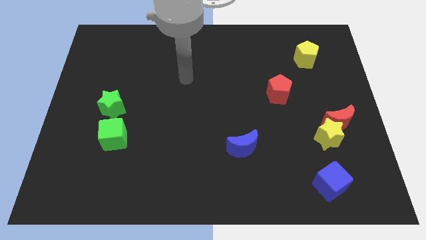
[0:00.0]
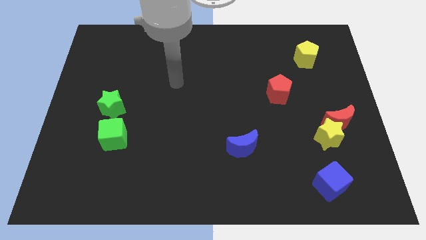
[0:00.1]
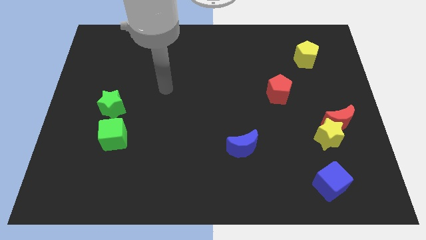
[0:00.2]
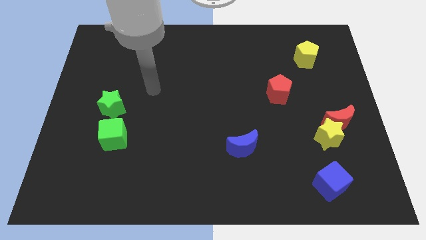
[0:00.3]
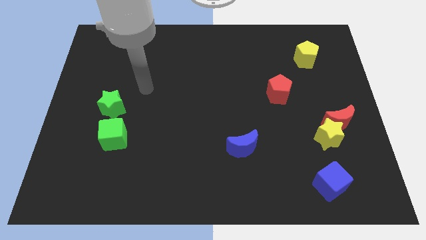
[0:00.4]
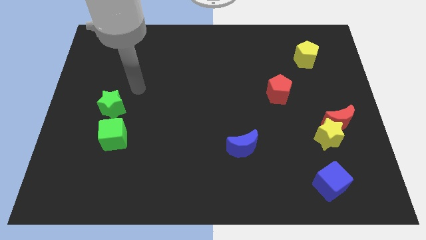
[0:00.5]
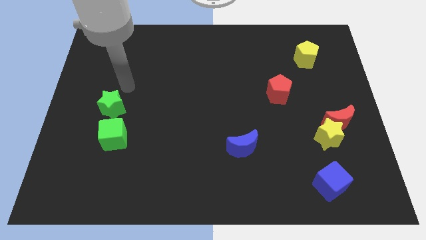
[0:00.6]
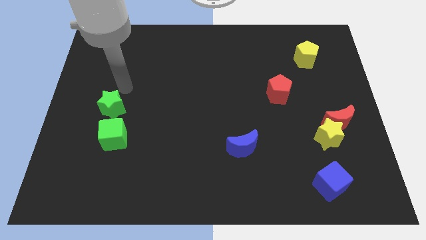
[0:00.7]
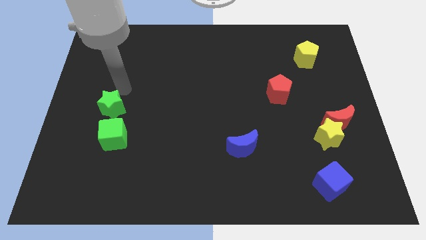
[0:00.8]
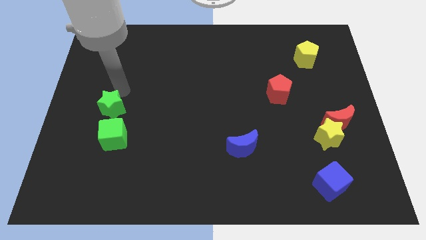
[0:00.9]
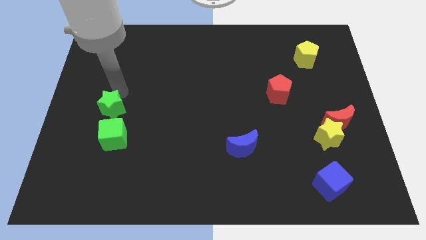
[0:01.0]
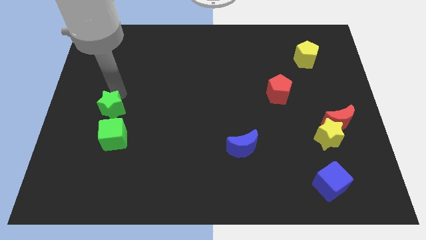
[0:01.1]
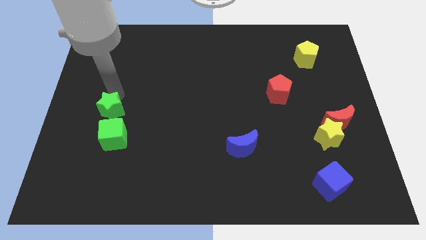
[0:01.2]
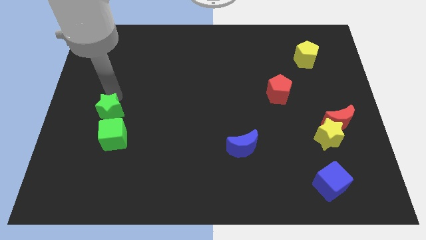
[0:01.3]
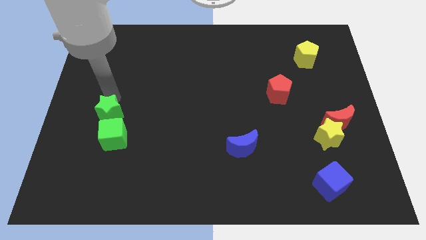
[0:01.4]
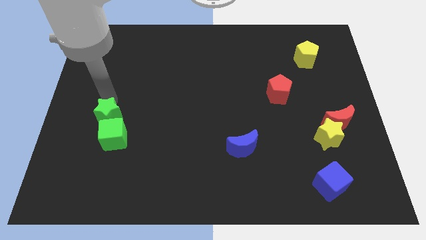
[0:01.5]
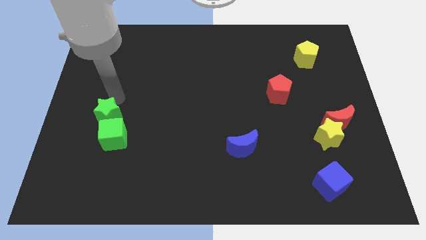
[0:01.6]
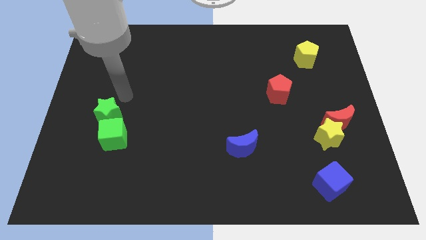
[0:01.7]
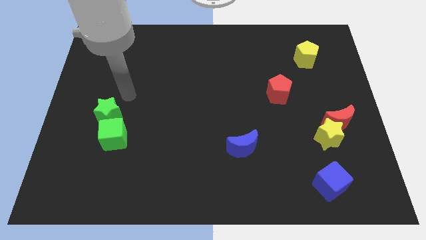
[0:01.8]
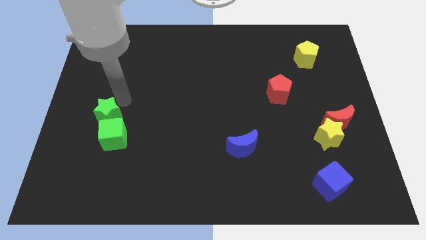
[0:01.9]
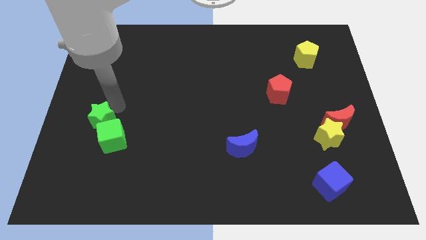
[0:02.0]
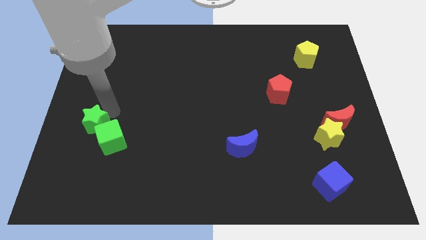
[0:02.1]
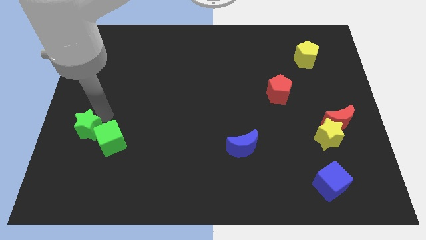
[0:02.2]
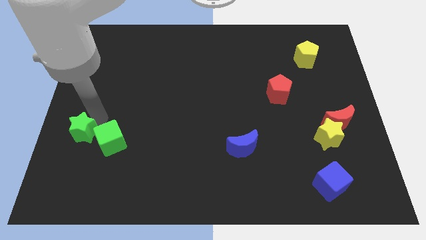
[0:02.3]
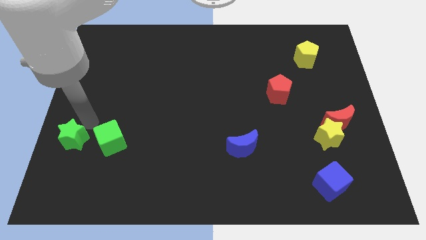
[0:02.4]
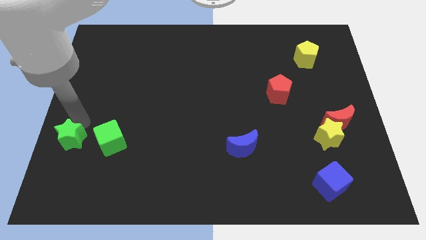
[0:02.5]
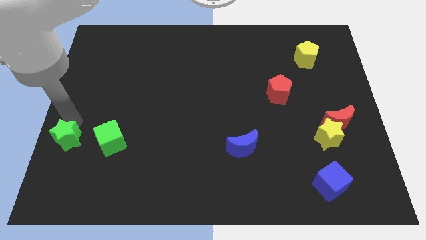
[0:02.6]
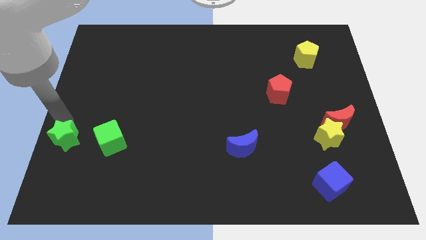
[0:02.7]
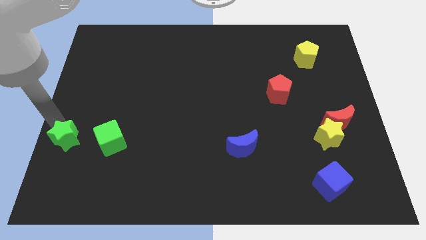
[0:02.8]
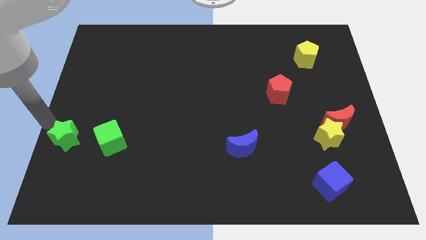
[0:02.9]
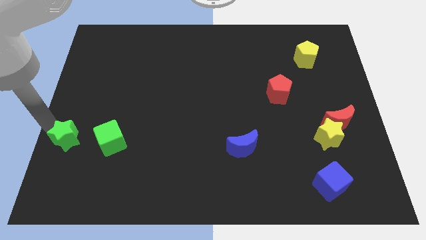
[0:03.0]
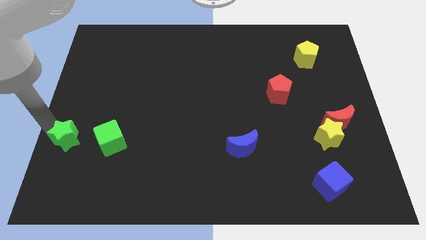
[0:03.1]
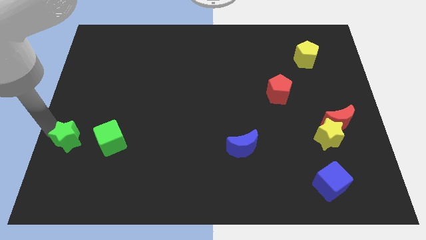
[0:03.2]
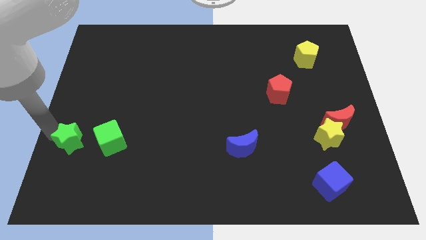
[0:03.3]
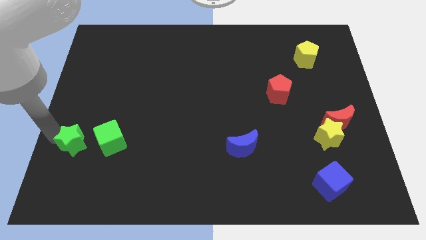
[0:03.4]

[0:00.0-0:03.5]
move the green star slightly downwards

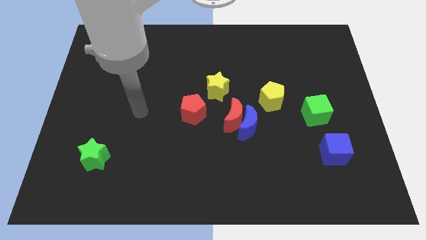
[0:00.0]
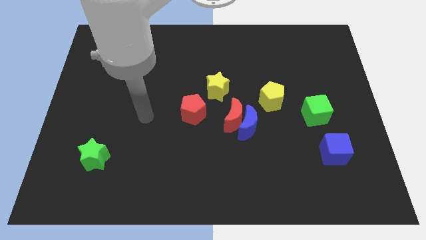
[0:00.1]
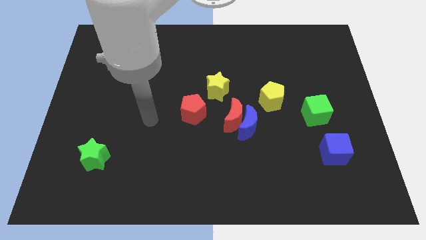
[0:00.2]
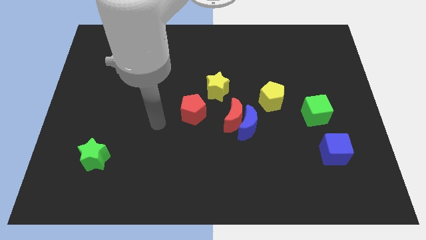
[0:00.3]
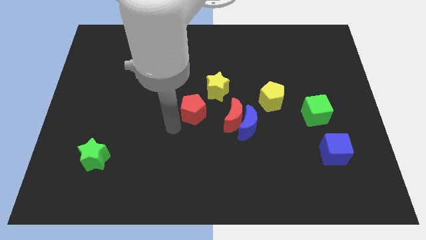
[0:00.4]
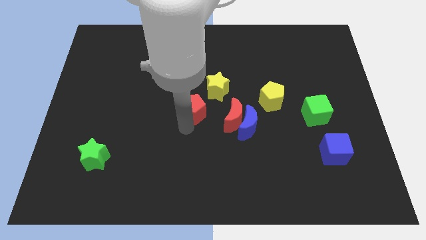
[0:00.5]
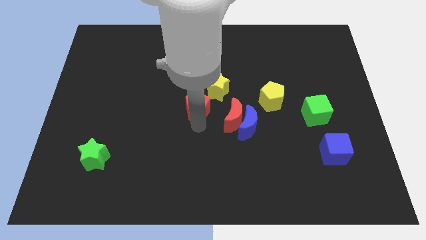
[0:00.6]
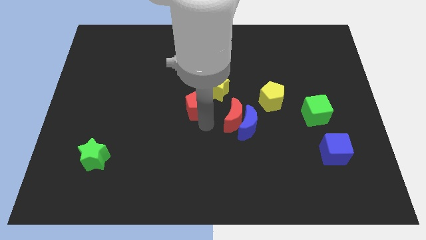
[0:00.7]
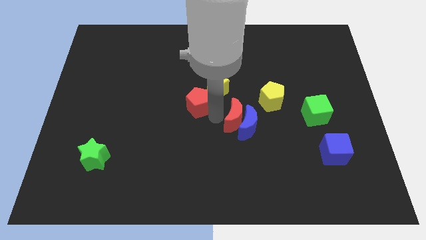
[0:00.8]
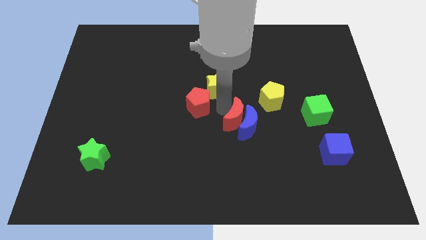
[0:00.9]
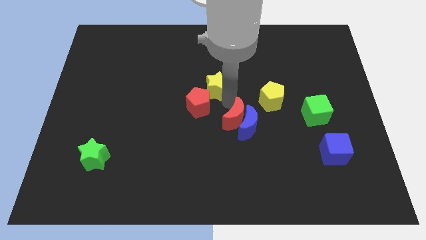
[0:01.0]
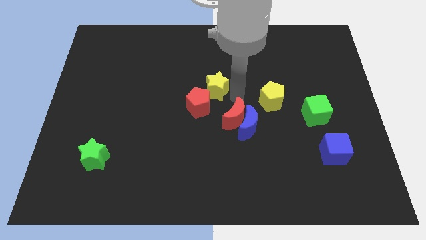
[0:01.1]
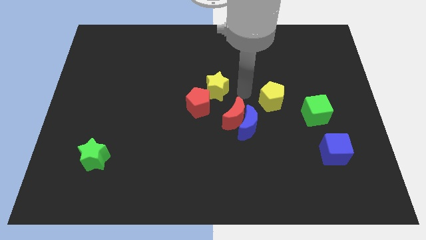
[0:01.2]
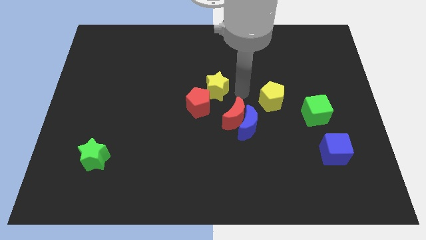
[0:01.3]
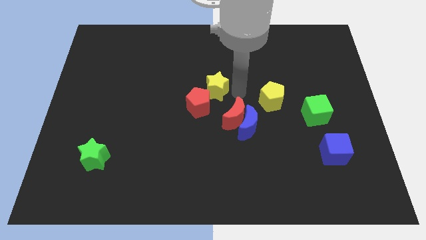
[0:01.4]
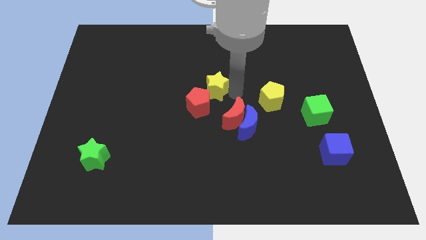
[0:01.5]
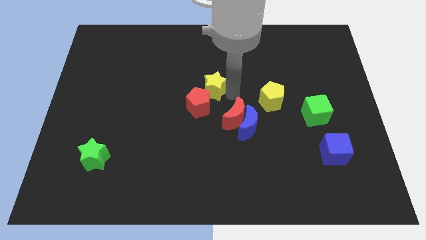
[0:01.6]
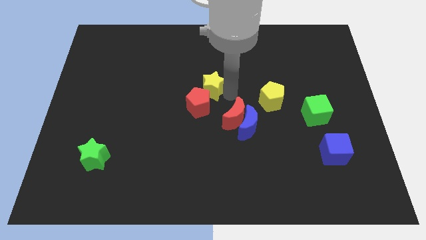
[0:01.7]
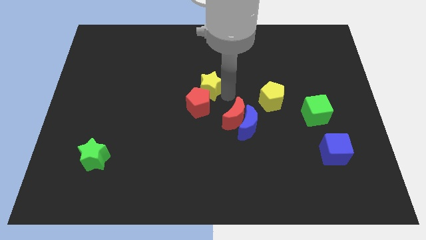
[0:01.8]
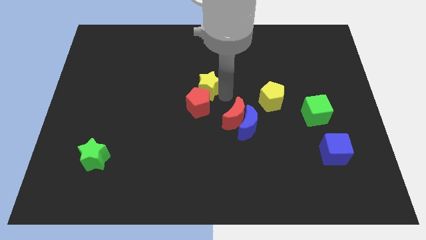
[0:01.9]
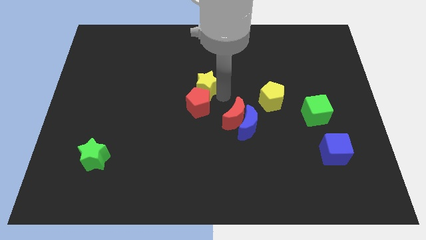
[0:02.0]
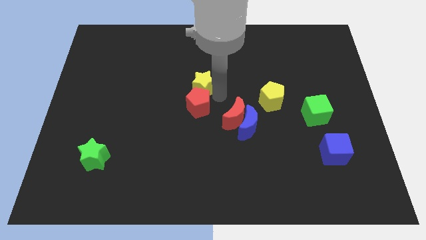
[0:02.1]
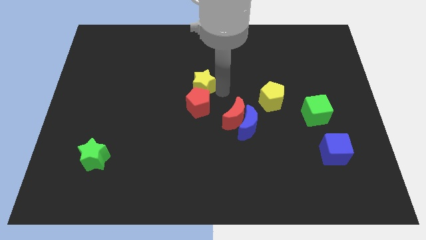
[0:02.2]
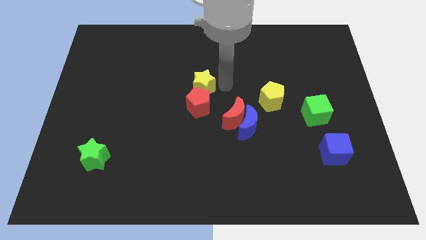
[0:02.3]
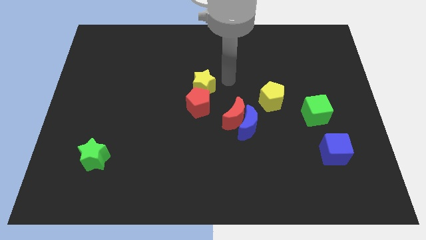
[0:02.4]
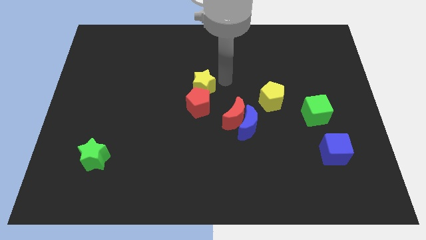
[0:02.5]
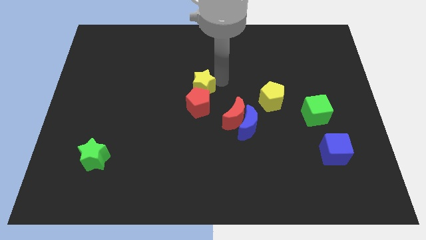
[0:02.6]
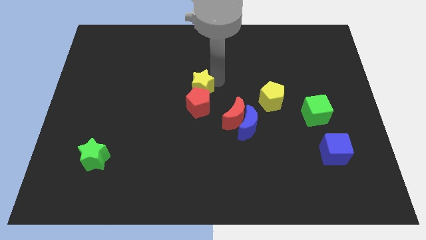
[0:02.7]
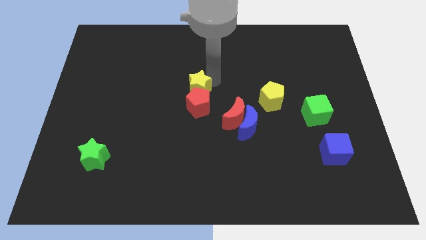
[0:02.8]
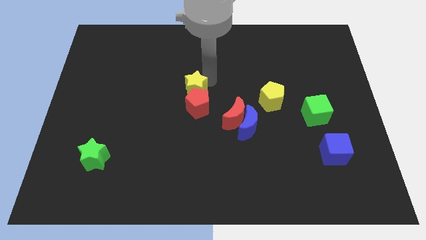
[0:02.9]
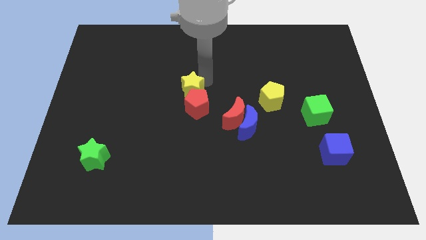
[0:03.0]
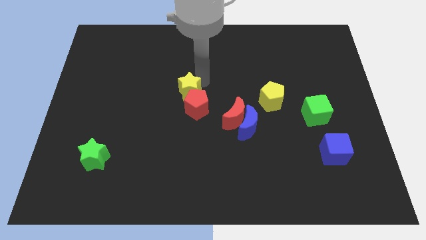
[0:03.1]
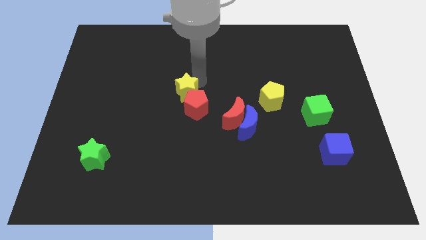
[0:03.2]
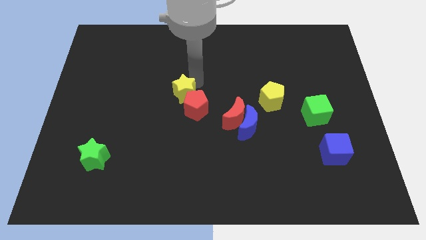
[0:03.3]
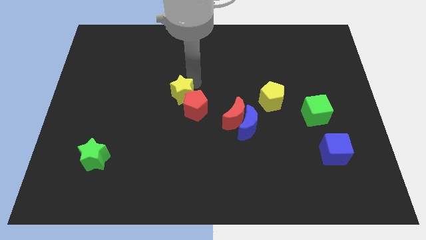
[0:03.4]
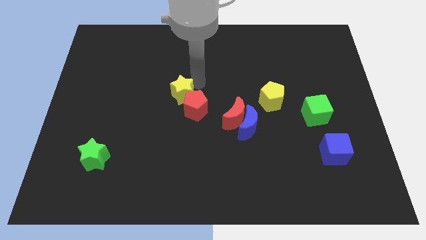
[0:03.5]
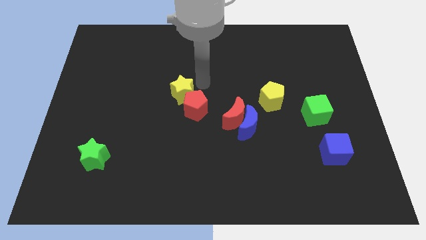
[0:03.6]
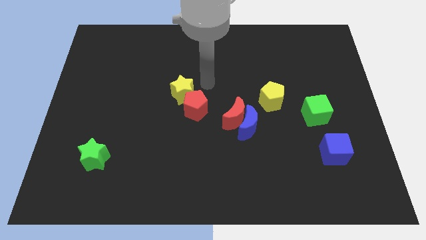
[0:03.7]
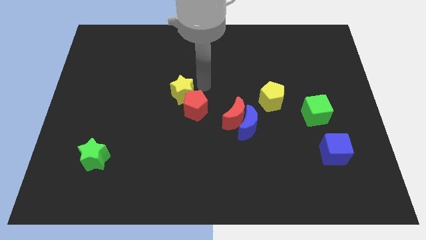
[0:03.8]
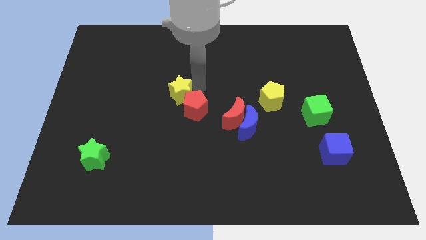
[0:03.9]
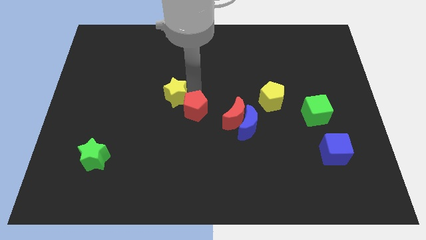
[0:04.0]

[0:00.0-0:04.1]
slide the yellow star a little downwards and left diagonally

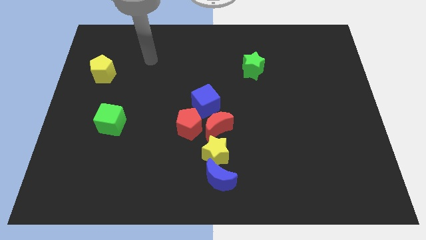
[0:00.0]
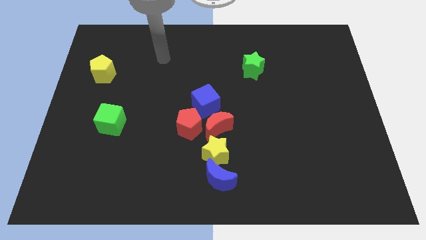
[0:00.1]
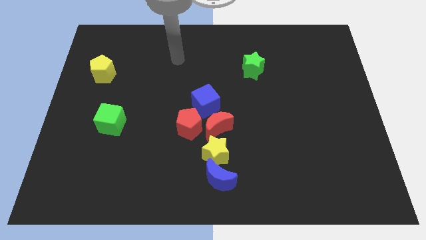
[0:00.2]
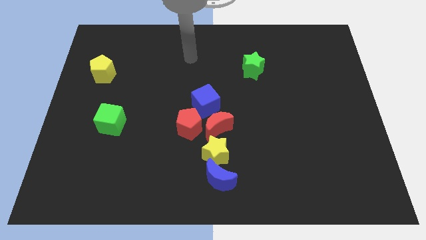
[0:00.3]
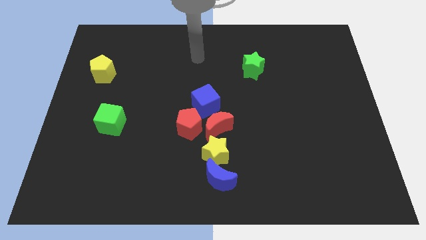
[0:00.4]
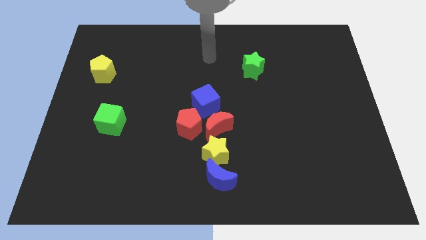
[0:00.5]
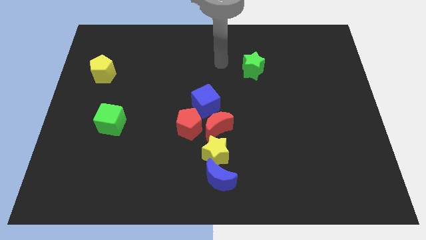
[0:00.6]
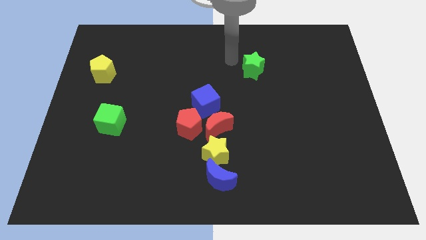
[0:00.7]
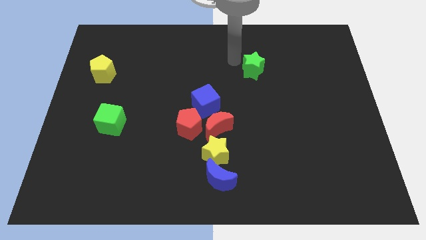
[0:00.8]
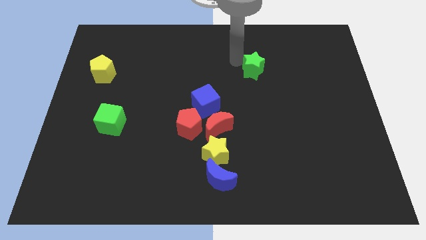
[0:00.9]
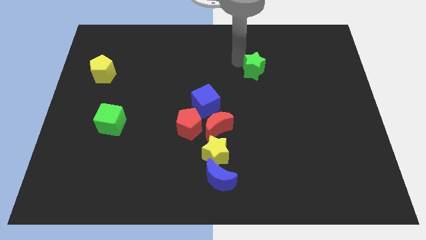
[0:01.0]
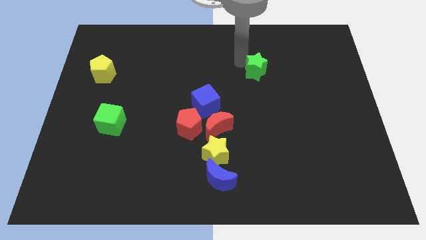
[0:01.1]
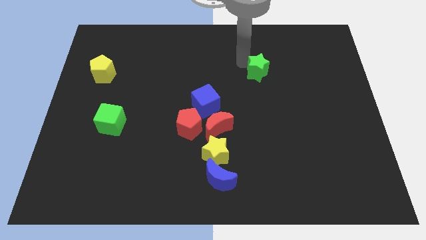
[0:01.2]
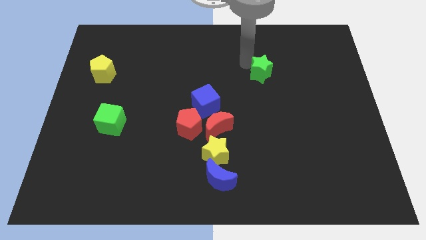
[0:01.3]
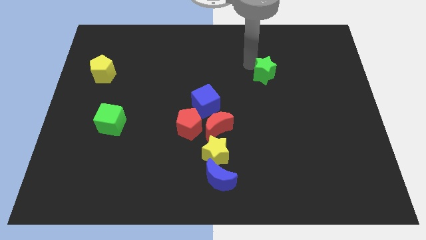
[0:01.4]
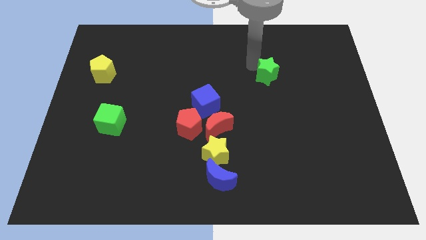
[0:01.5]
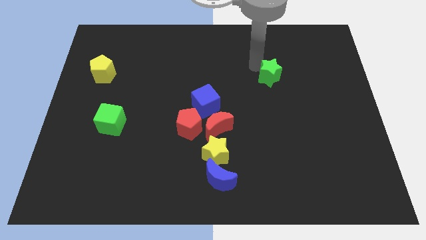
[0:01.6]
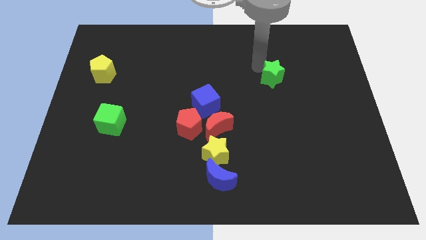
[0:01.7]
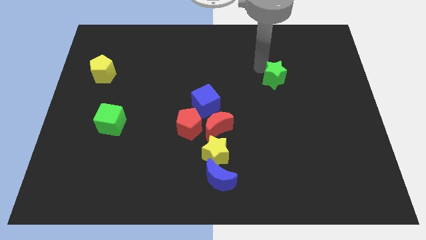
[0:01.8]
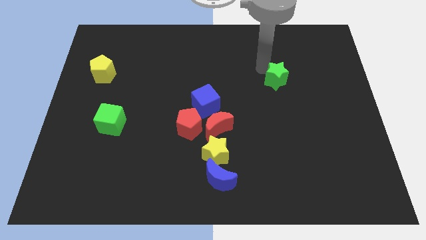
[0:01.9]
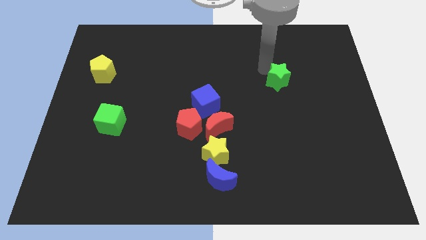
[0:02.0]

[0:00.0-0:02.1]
slightly push the green star down and then right
